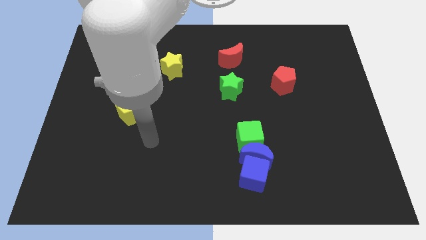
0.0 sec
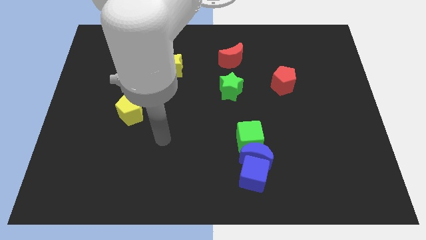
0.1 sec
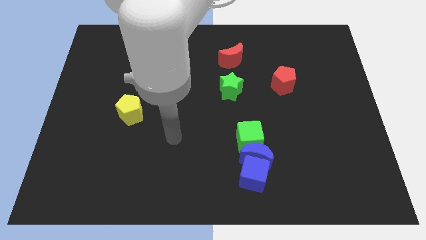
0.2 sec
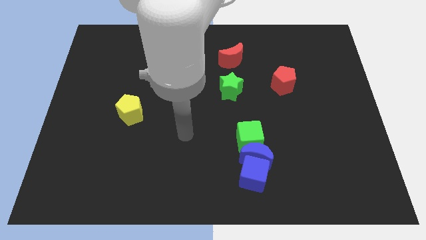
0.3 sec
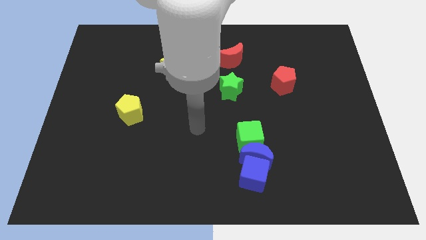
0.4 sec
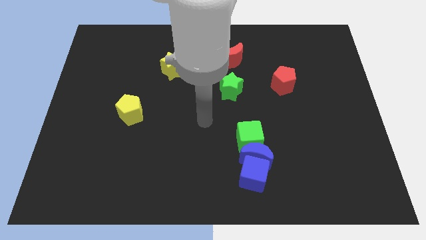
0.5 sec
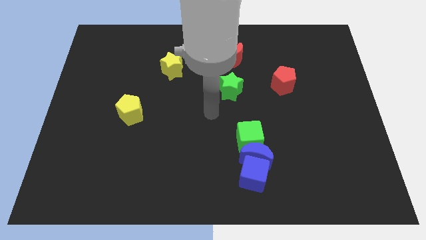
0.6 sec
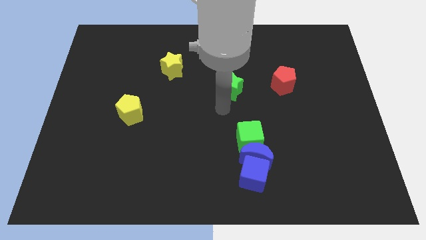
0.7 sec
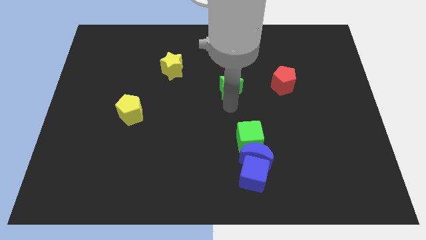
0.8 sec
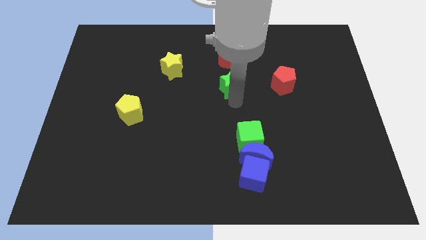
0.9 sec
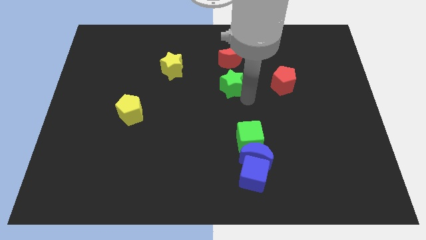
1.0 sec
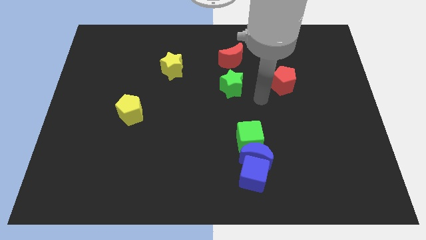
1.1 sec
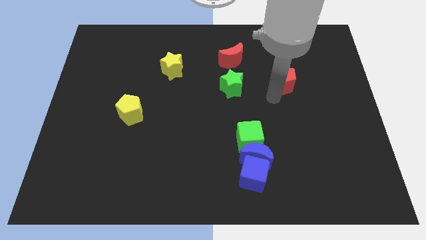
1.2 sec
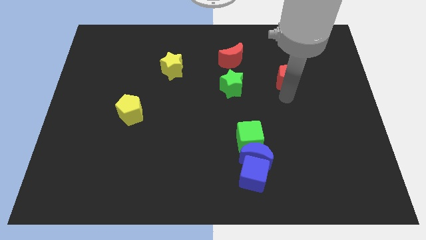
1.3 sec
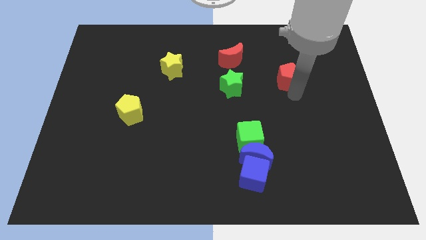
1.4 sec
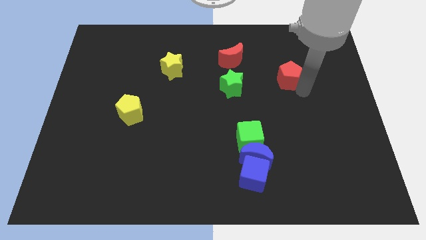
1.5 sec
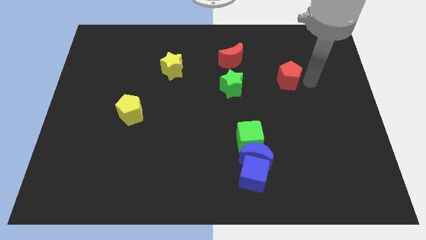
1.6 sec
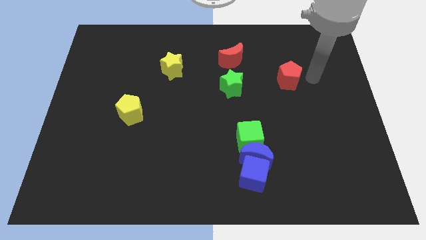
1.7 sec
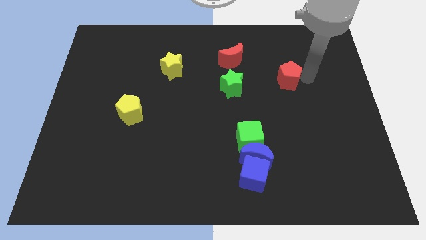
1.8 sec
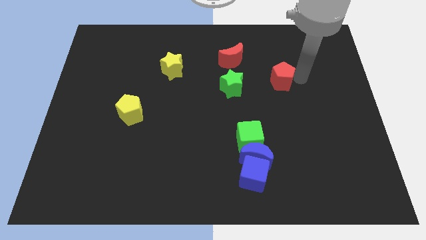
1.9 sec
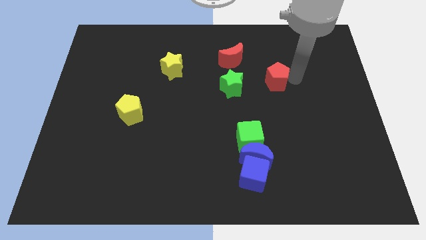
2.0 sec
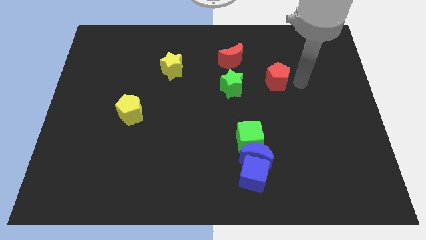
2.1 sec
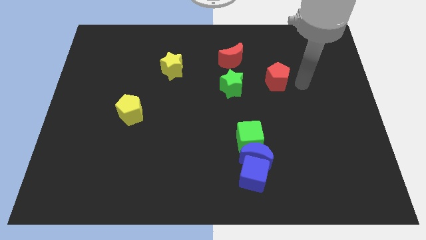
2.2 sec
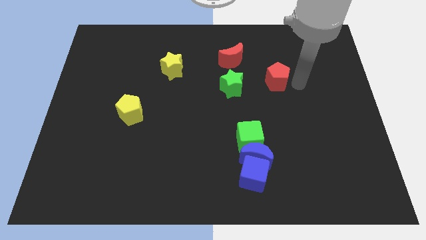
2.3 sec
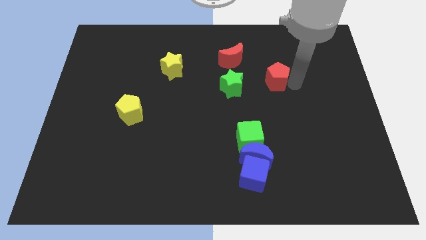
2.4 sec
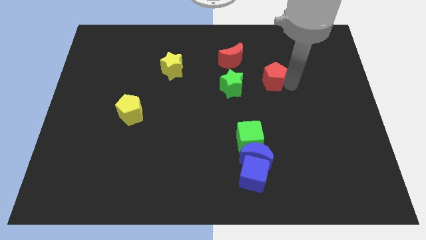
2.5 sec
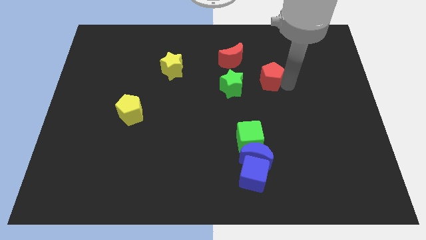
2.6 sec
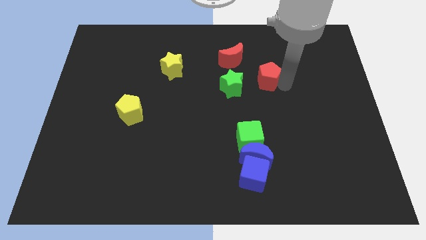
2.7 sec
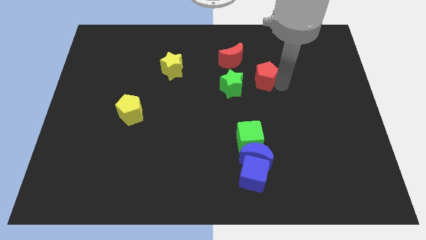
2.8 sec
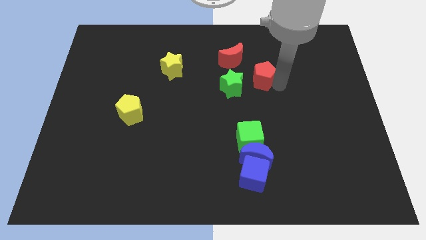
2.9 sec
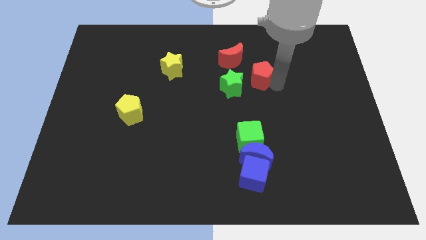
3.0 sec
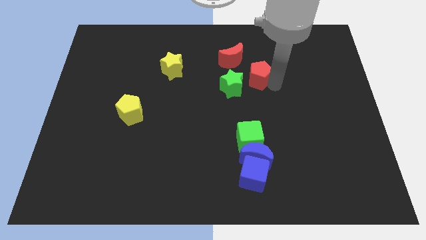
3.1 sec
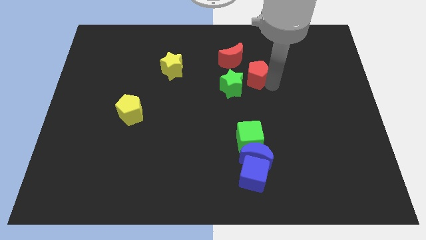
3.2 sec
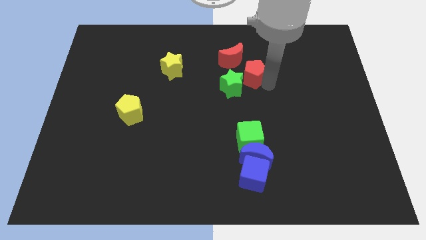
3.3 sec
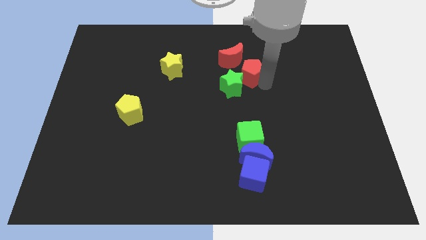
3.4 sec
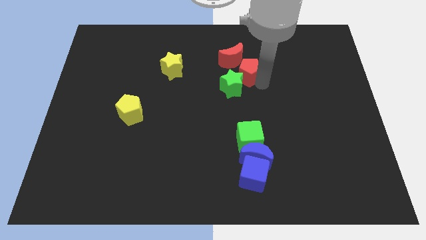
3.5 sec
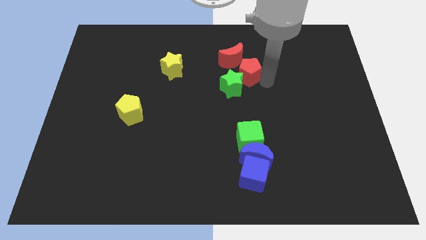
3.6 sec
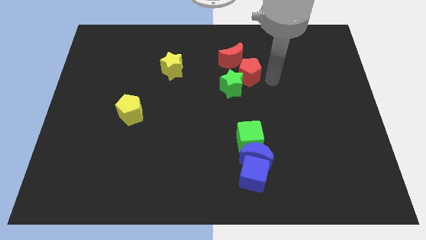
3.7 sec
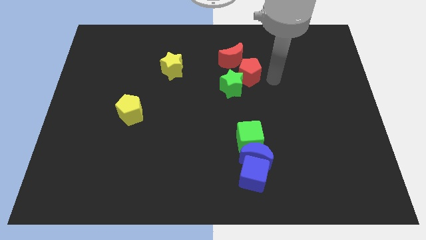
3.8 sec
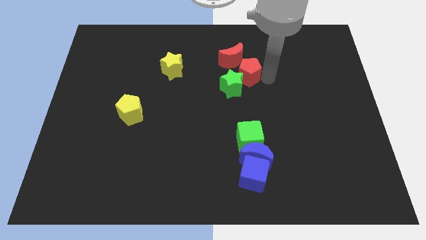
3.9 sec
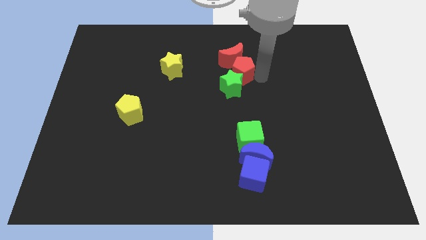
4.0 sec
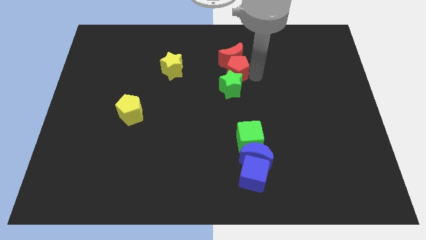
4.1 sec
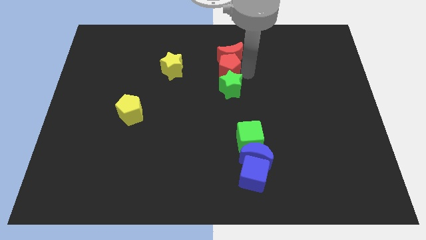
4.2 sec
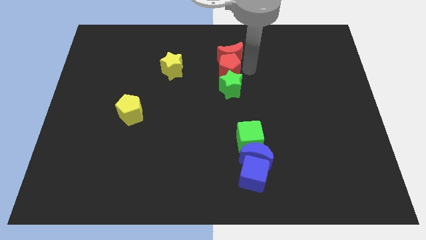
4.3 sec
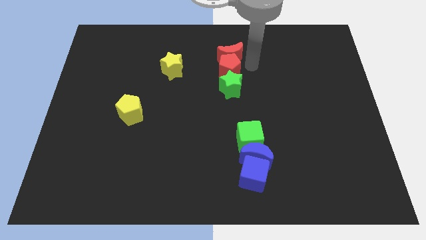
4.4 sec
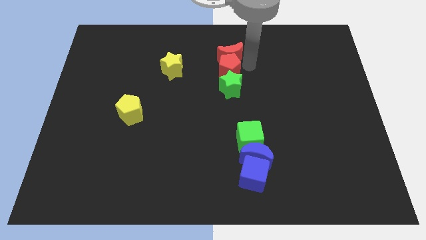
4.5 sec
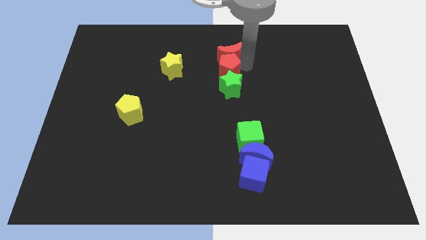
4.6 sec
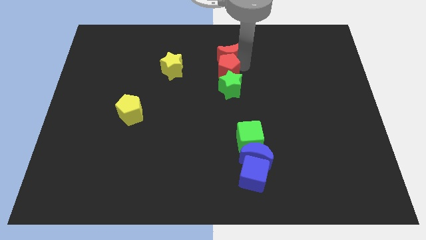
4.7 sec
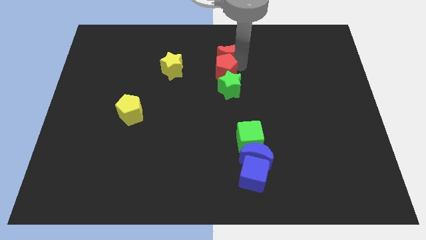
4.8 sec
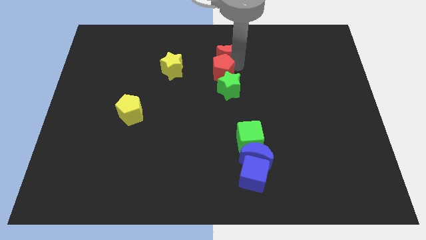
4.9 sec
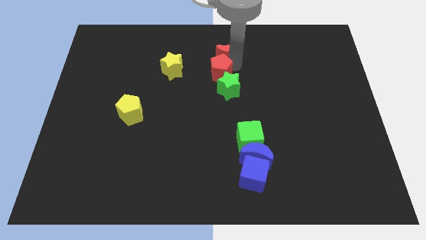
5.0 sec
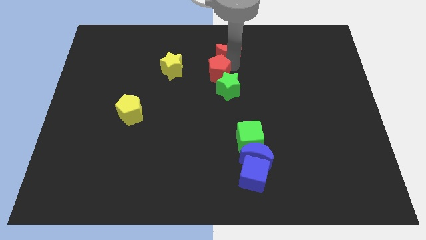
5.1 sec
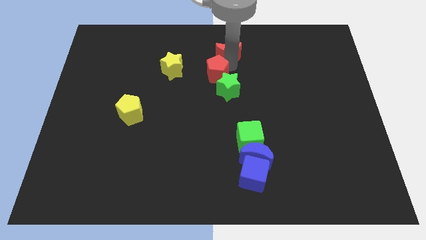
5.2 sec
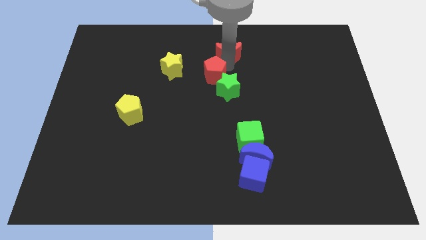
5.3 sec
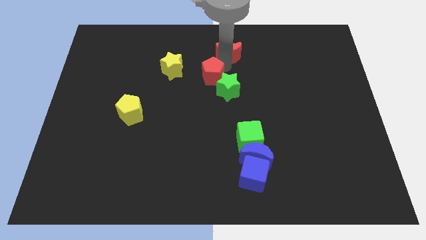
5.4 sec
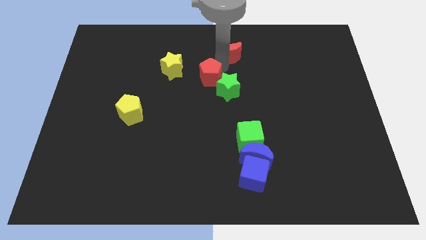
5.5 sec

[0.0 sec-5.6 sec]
move the red pentagon to the bottom right side of the yellow star

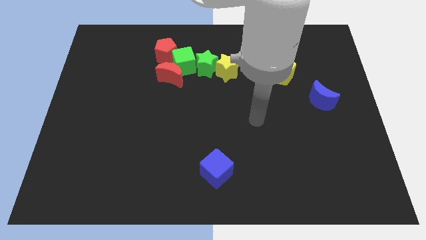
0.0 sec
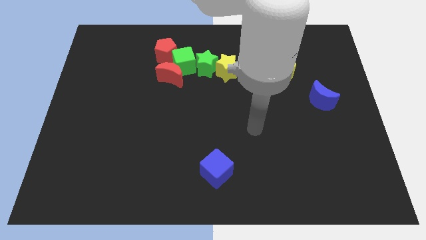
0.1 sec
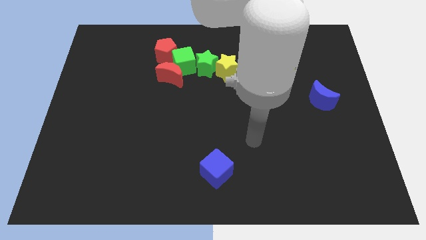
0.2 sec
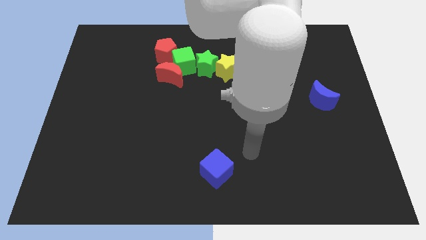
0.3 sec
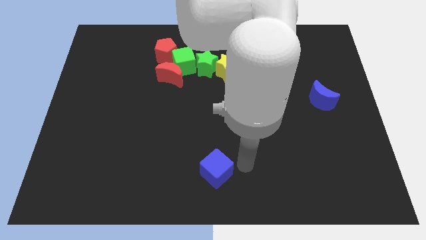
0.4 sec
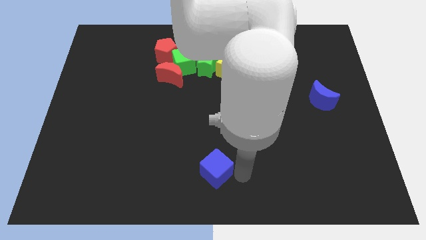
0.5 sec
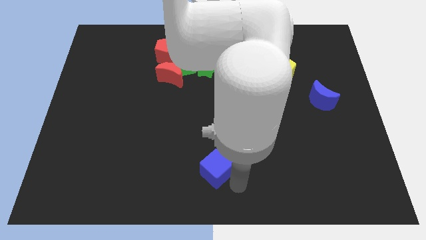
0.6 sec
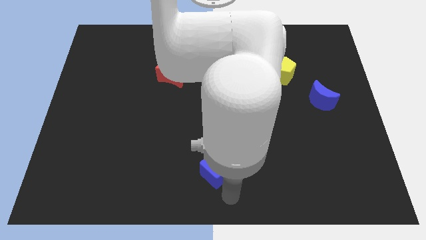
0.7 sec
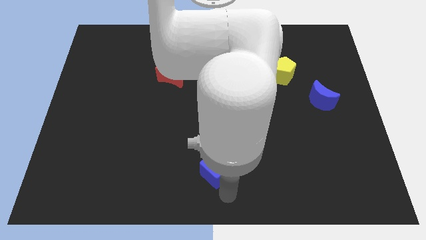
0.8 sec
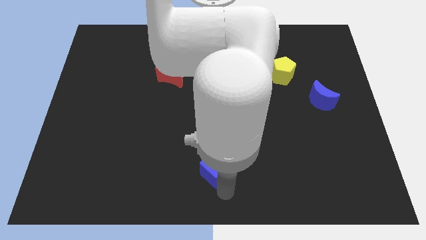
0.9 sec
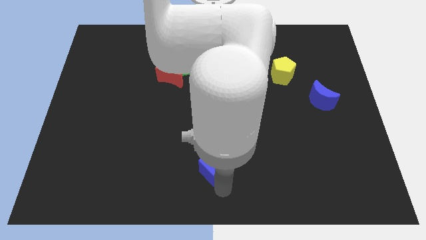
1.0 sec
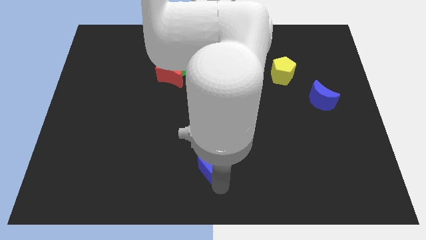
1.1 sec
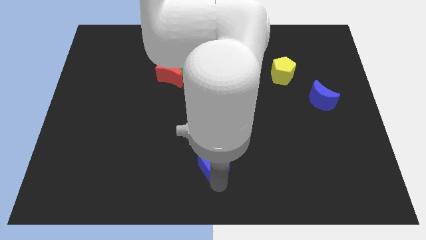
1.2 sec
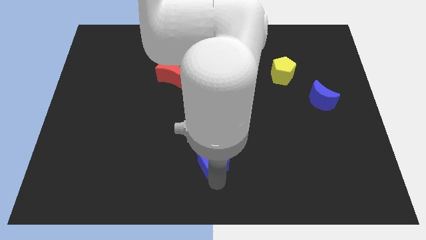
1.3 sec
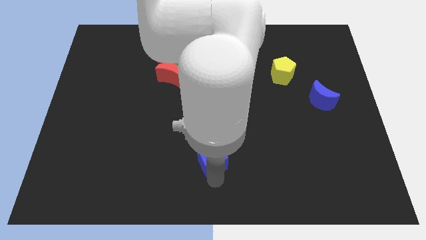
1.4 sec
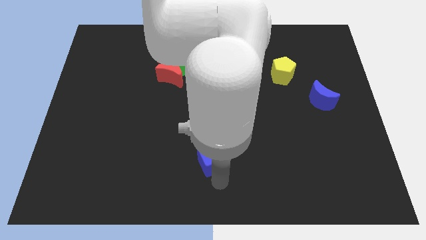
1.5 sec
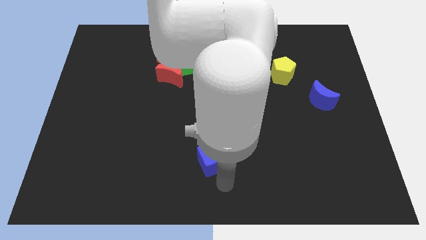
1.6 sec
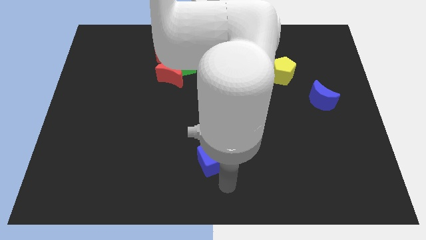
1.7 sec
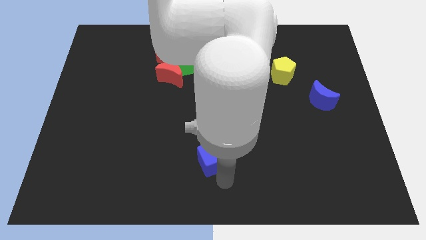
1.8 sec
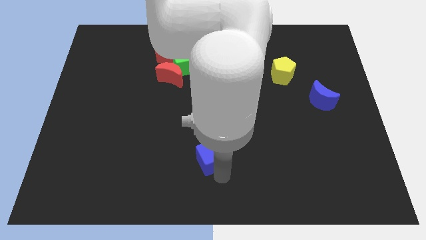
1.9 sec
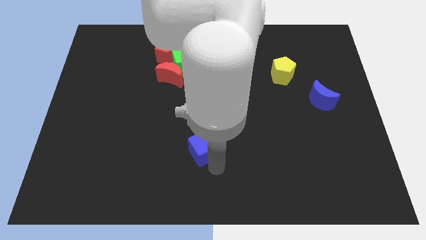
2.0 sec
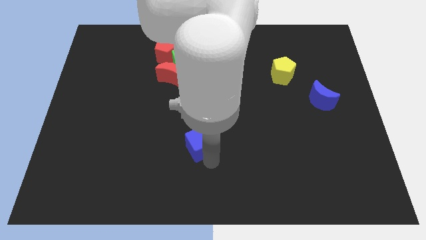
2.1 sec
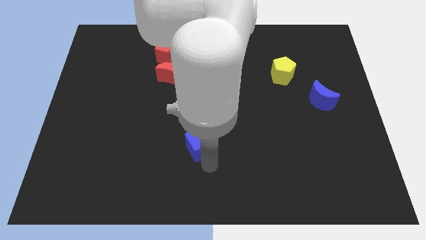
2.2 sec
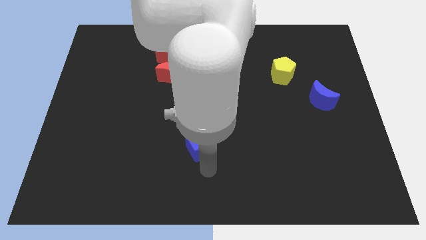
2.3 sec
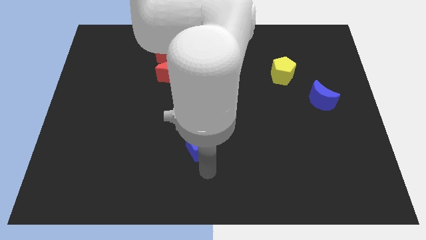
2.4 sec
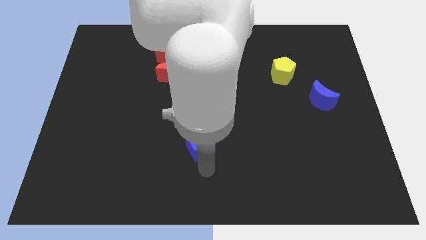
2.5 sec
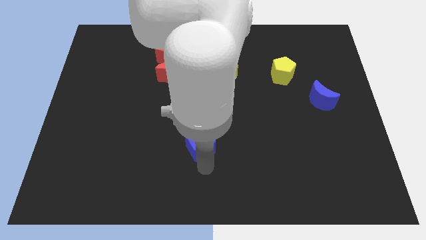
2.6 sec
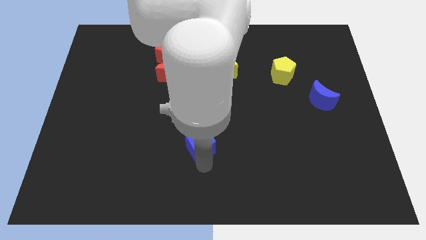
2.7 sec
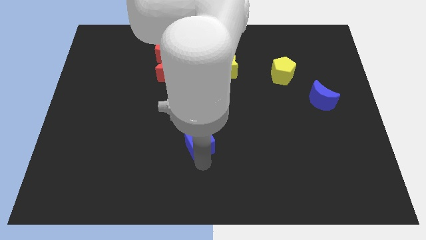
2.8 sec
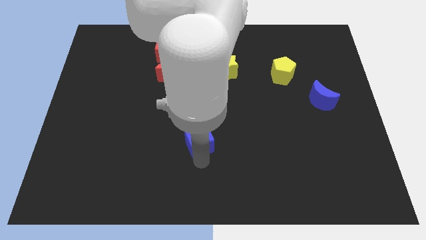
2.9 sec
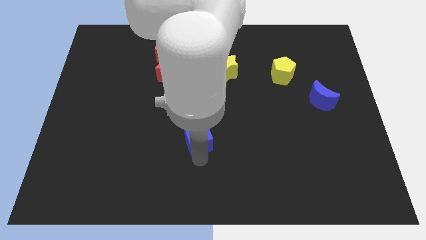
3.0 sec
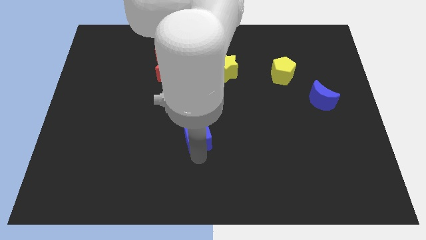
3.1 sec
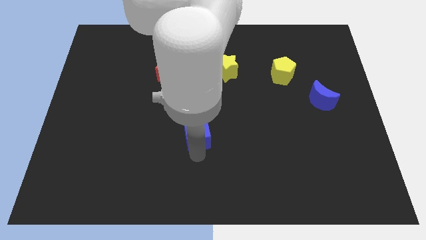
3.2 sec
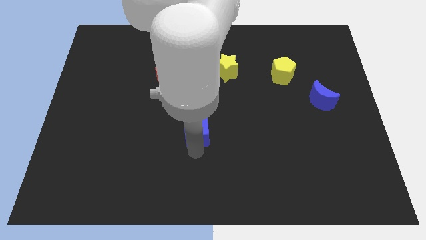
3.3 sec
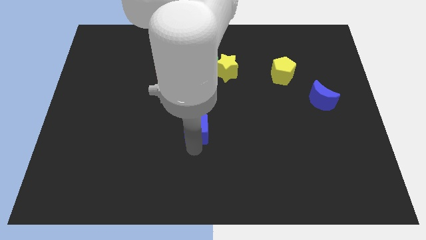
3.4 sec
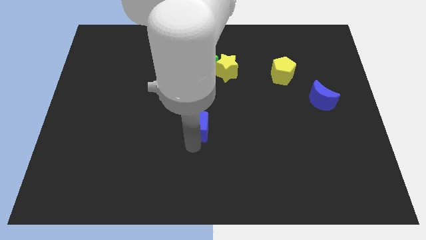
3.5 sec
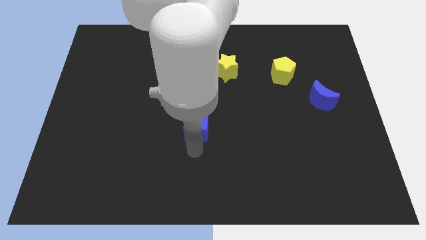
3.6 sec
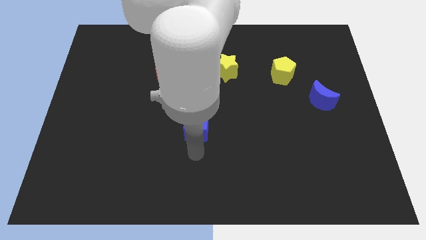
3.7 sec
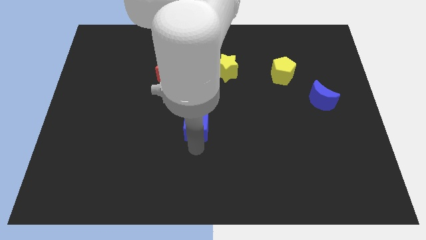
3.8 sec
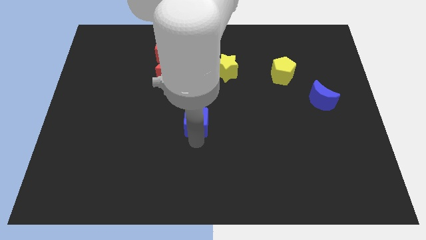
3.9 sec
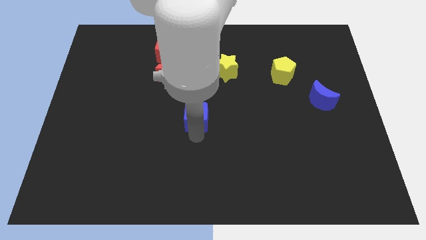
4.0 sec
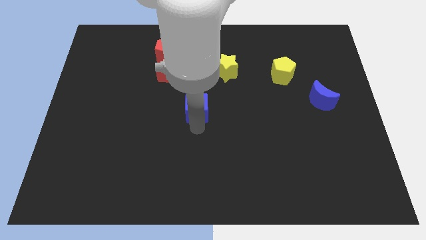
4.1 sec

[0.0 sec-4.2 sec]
push the blue cube diagonally down and to the right of the red moon
